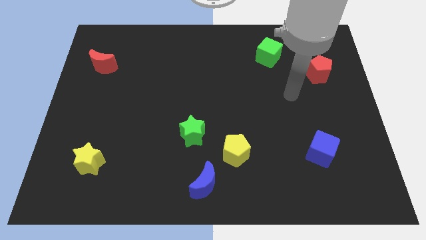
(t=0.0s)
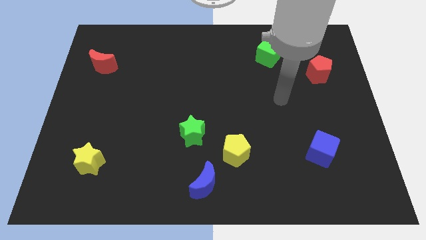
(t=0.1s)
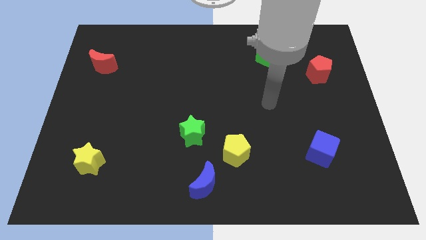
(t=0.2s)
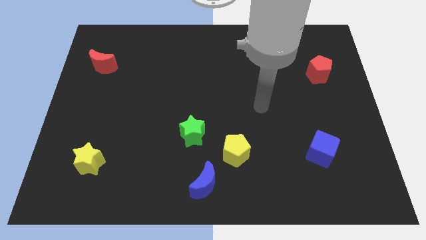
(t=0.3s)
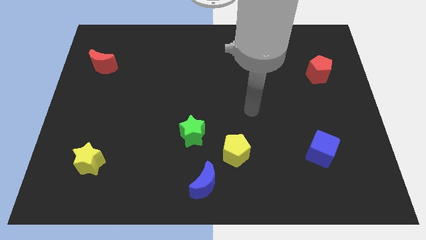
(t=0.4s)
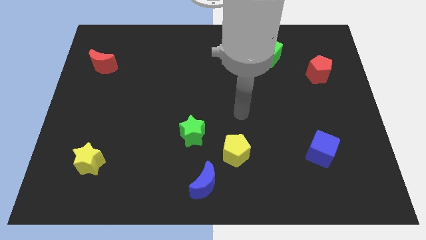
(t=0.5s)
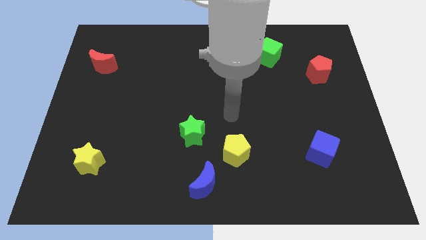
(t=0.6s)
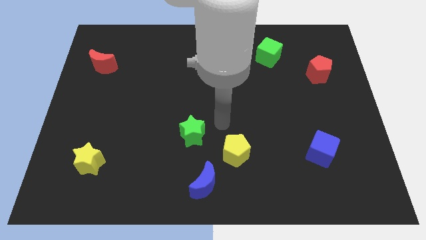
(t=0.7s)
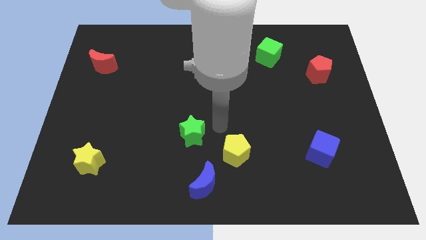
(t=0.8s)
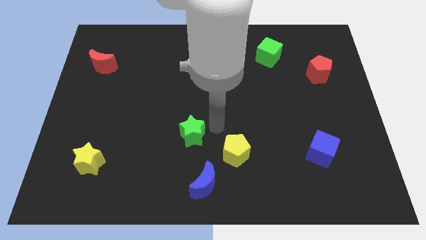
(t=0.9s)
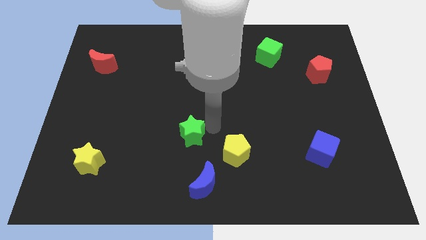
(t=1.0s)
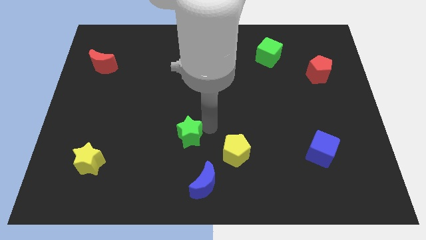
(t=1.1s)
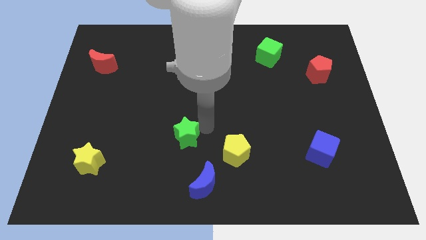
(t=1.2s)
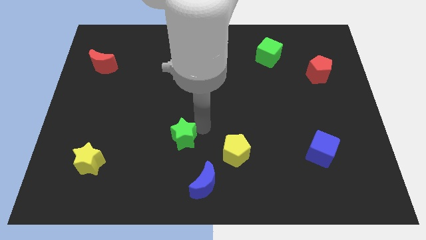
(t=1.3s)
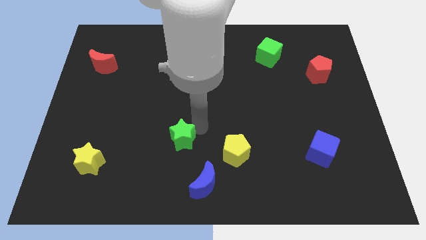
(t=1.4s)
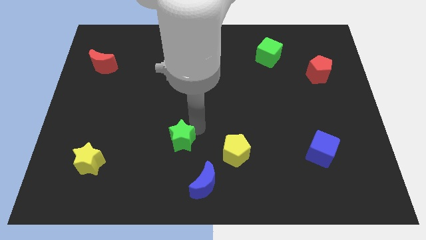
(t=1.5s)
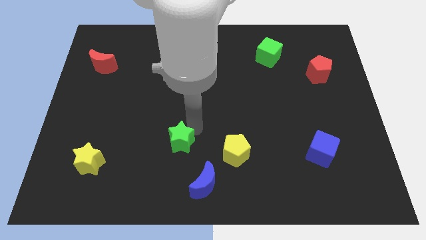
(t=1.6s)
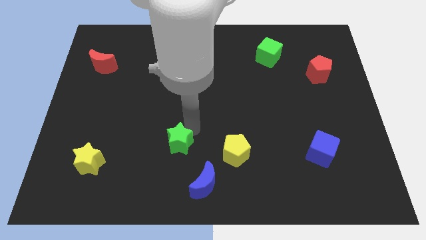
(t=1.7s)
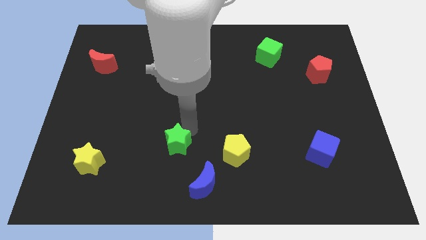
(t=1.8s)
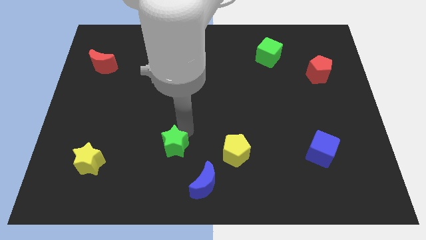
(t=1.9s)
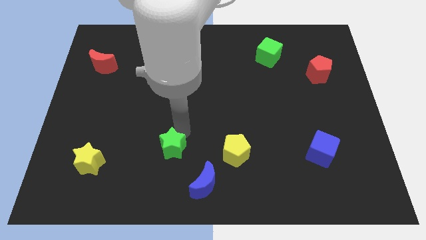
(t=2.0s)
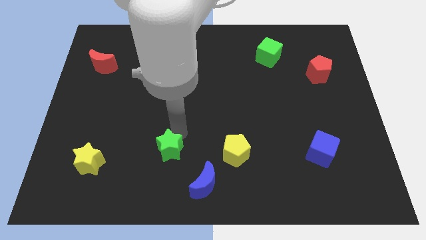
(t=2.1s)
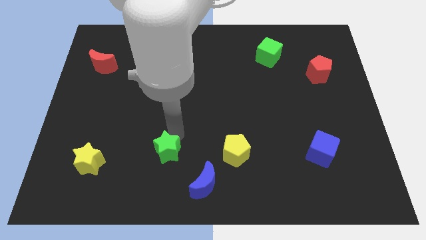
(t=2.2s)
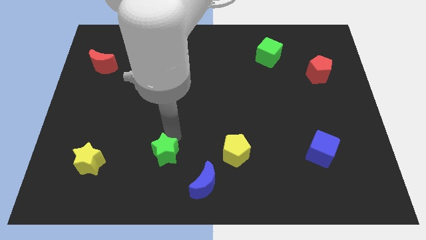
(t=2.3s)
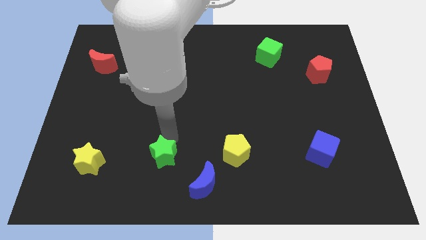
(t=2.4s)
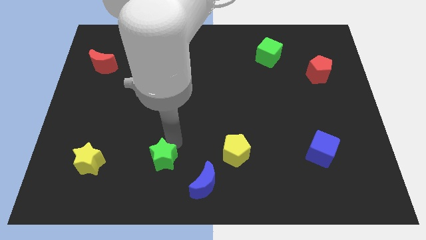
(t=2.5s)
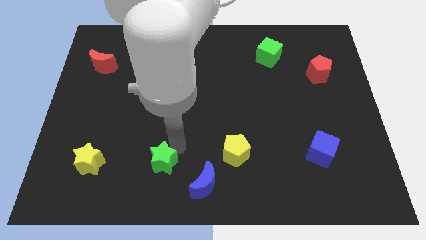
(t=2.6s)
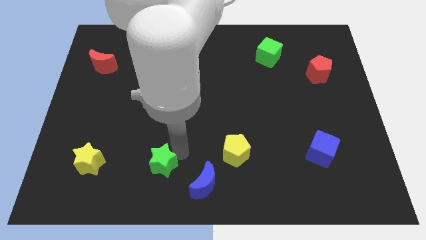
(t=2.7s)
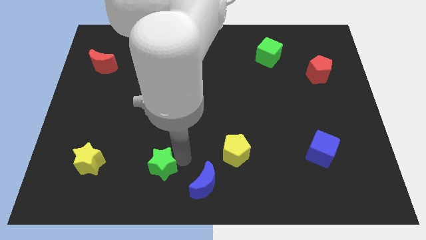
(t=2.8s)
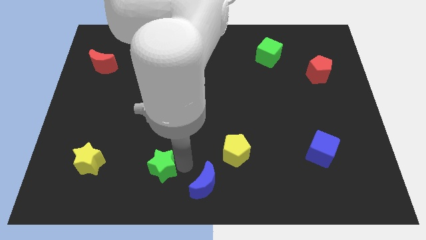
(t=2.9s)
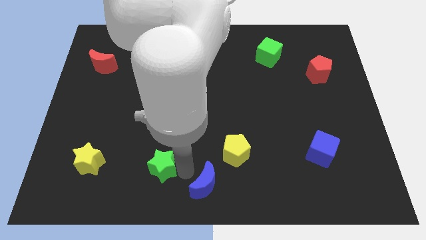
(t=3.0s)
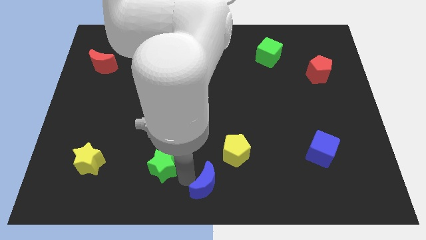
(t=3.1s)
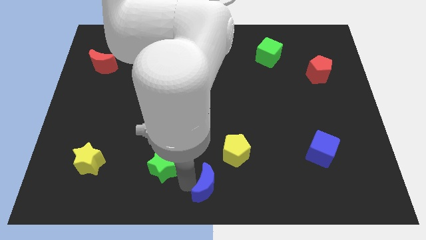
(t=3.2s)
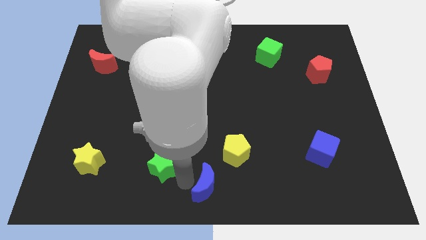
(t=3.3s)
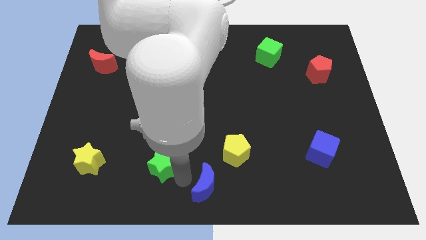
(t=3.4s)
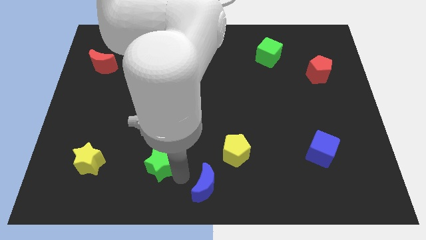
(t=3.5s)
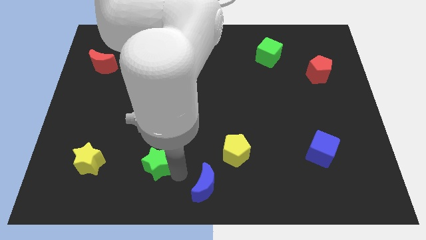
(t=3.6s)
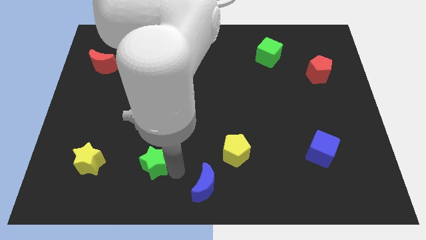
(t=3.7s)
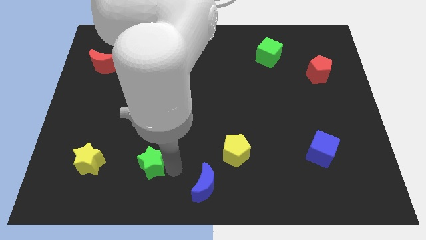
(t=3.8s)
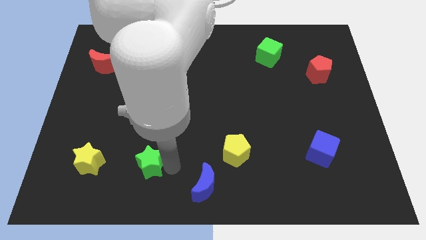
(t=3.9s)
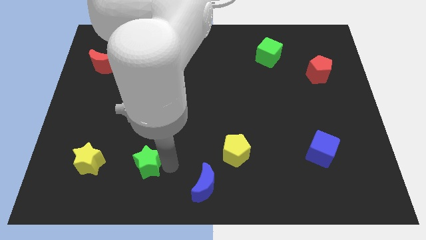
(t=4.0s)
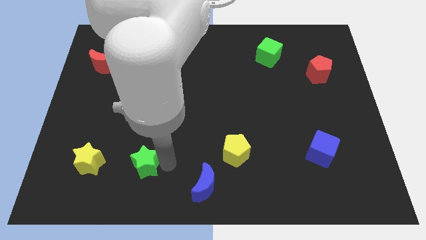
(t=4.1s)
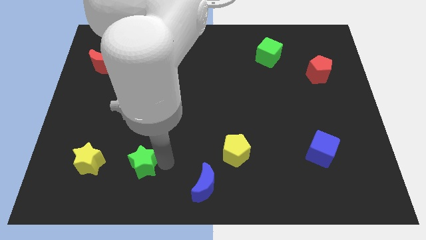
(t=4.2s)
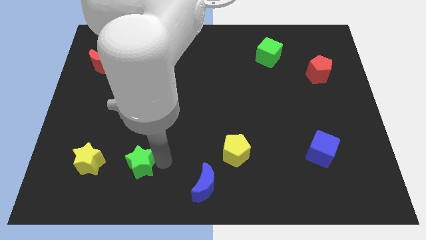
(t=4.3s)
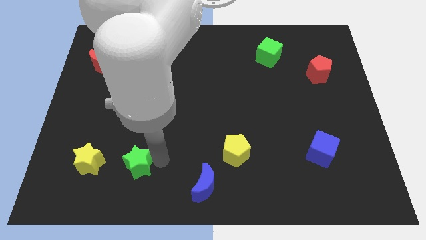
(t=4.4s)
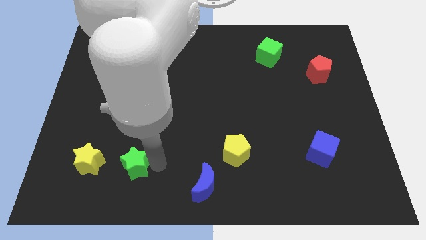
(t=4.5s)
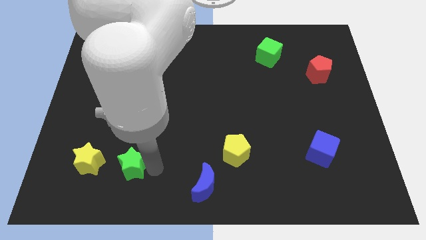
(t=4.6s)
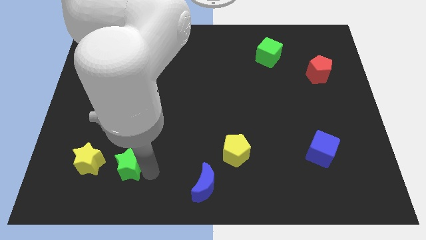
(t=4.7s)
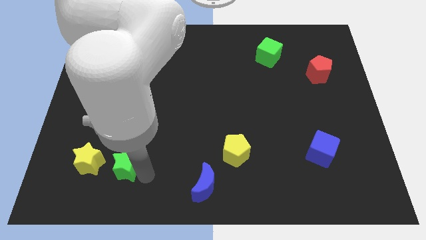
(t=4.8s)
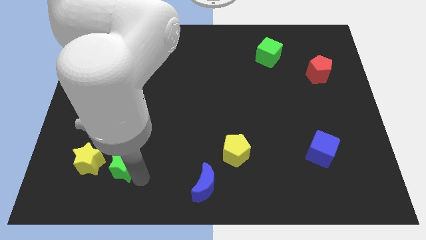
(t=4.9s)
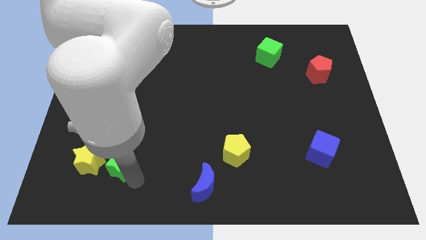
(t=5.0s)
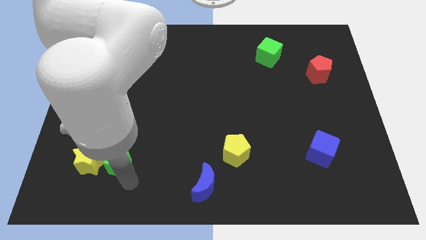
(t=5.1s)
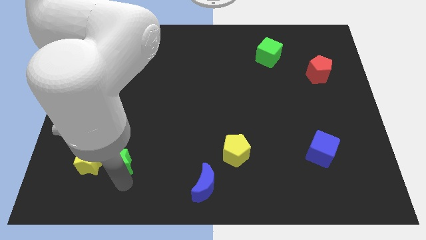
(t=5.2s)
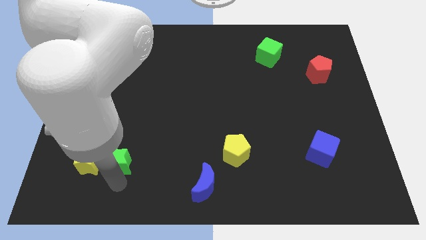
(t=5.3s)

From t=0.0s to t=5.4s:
move the green star towards the yellow star

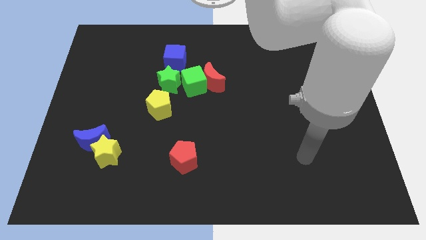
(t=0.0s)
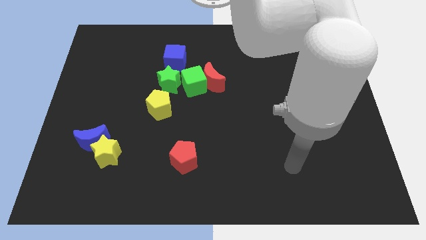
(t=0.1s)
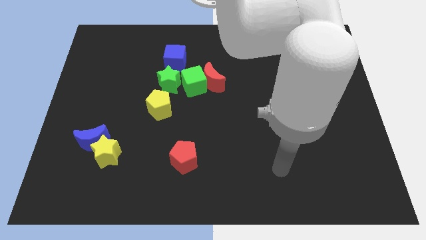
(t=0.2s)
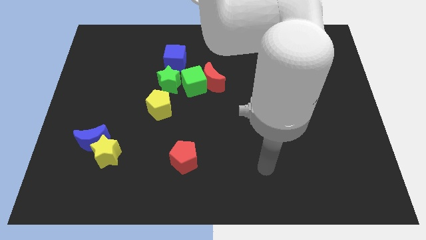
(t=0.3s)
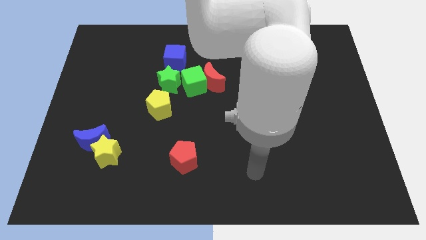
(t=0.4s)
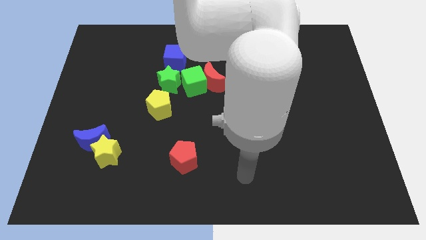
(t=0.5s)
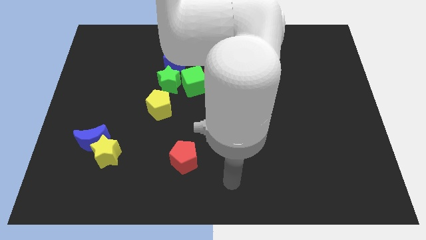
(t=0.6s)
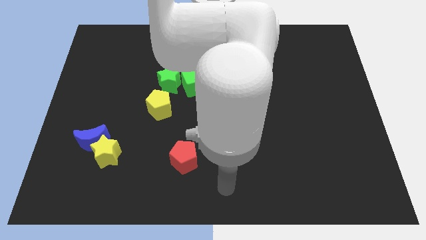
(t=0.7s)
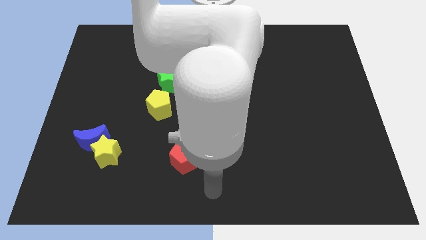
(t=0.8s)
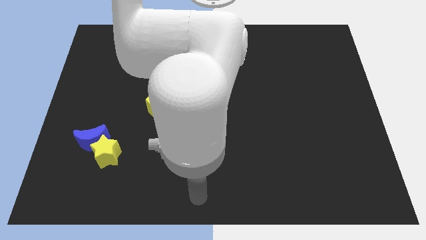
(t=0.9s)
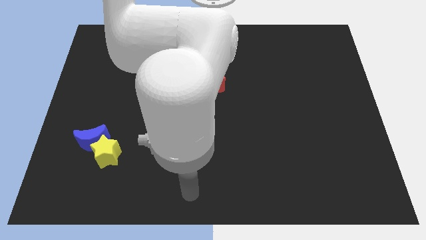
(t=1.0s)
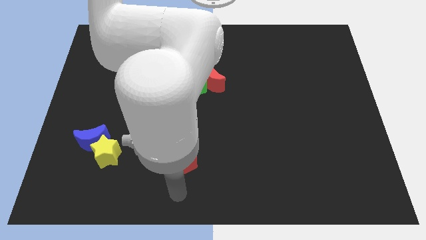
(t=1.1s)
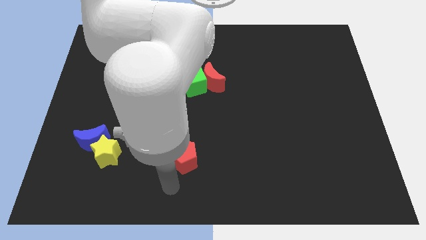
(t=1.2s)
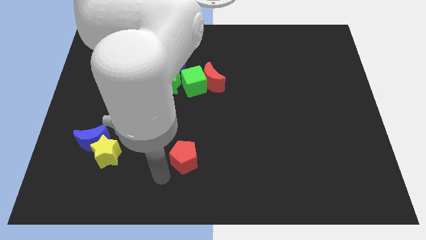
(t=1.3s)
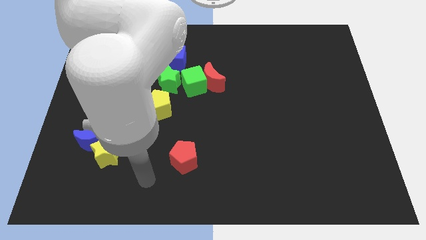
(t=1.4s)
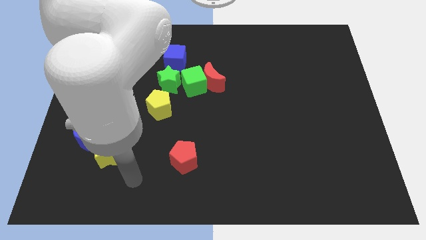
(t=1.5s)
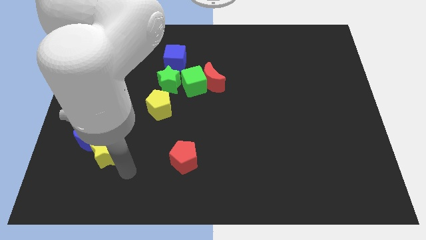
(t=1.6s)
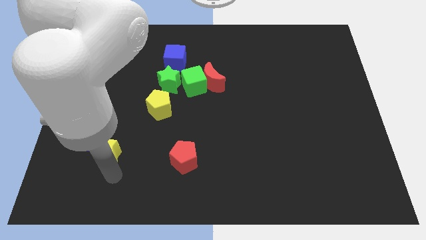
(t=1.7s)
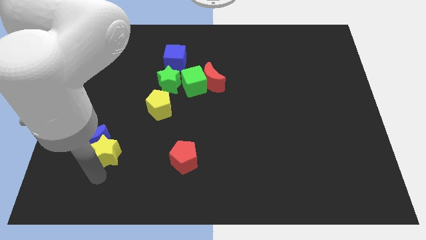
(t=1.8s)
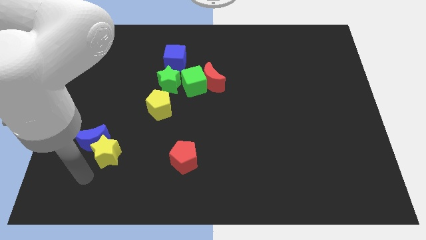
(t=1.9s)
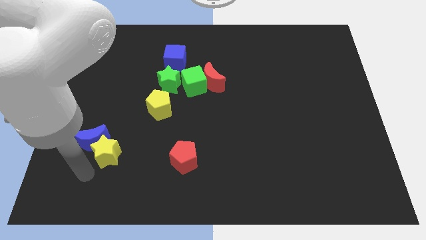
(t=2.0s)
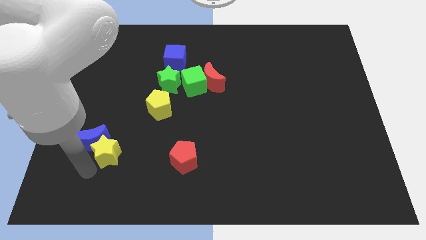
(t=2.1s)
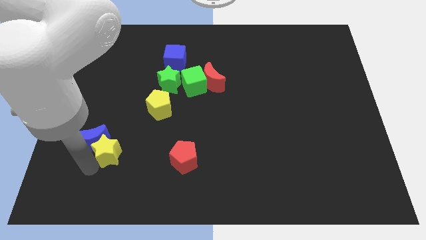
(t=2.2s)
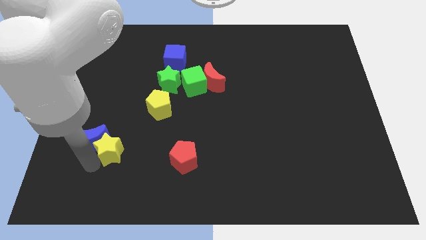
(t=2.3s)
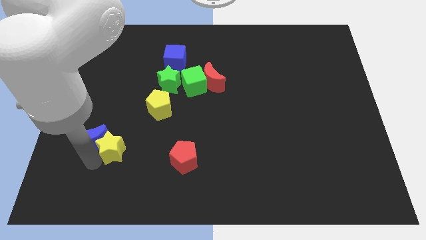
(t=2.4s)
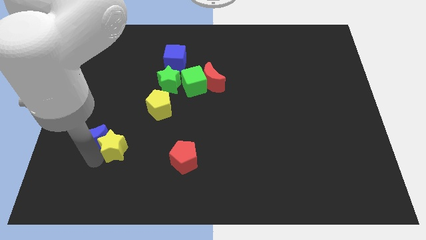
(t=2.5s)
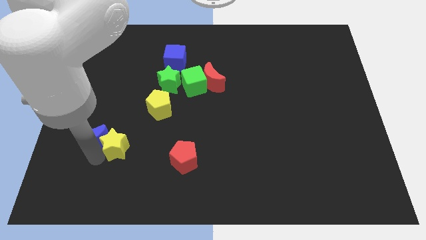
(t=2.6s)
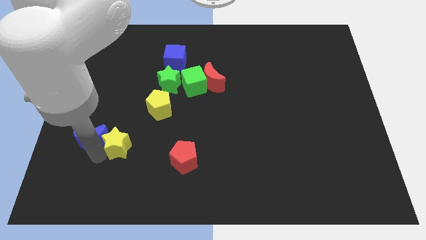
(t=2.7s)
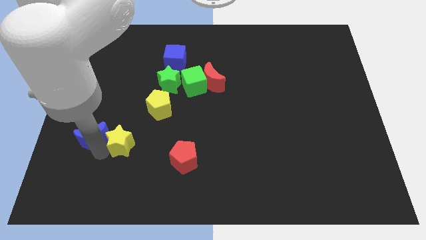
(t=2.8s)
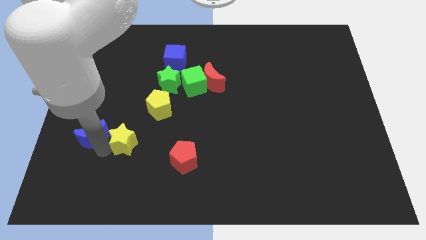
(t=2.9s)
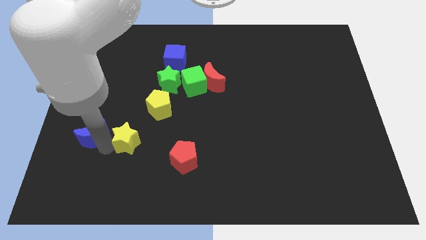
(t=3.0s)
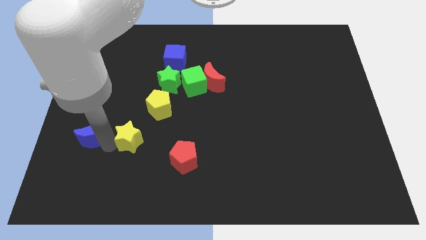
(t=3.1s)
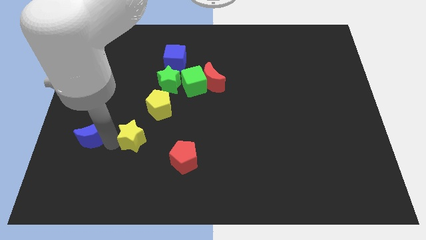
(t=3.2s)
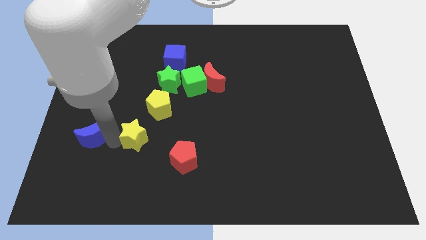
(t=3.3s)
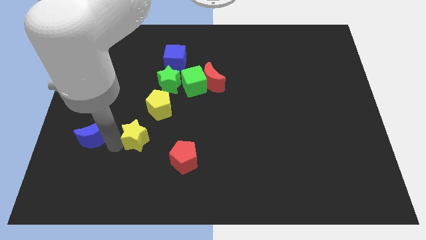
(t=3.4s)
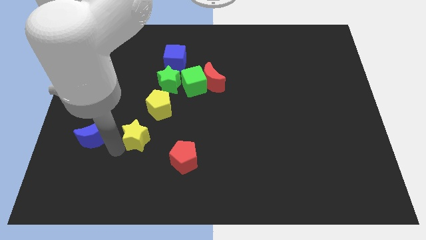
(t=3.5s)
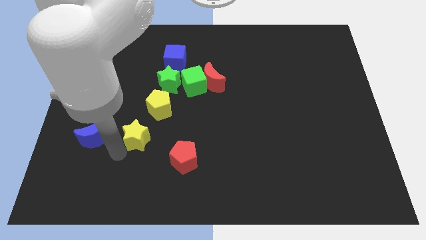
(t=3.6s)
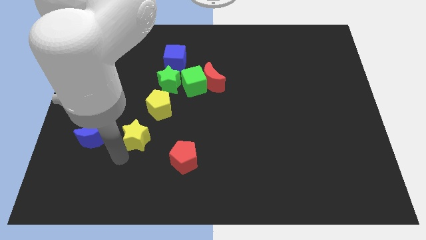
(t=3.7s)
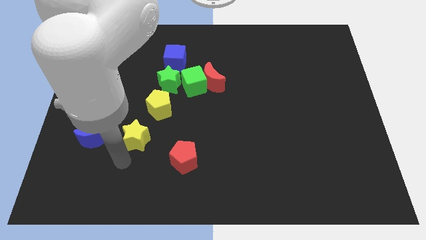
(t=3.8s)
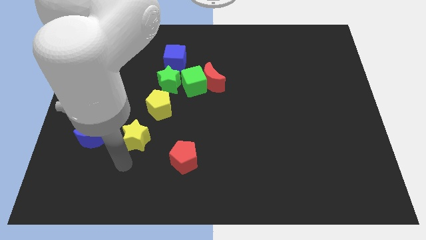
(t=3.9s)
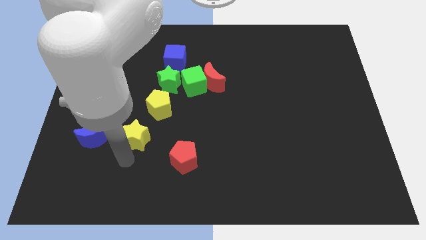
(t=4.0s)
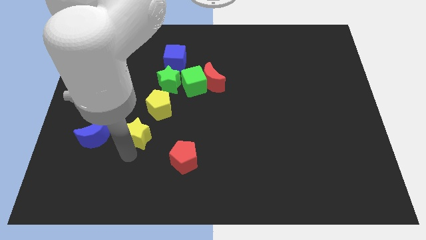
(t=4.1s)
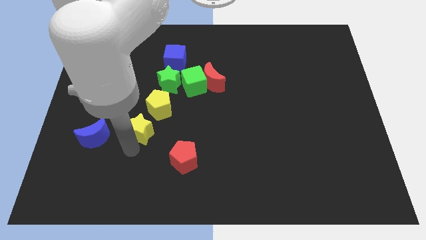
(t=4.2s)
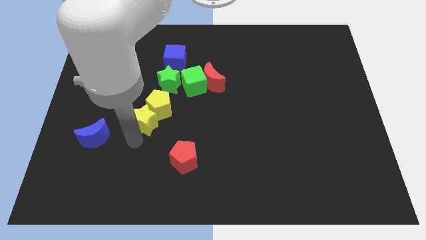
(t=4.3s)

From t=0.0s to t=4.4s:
move the yellow star next to the yellow pentagon
